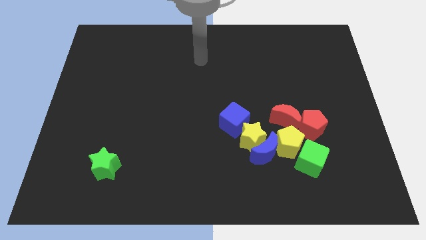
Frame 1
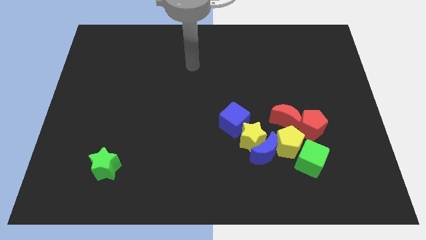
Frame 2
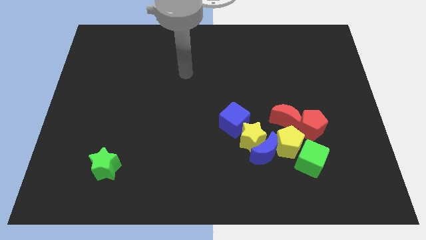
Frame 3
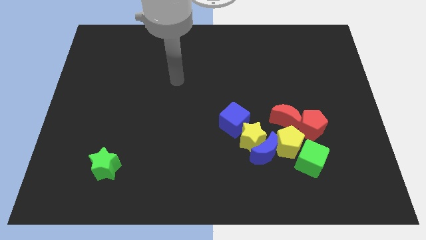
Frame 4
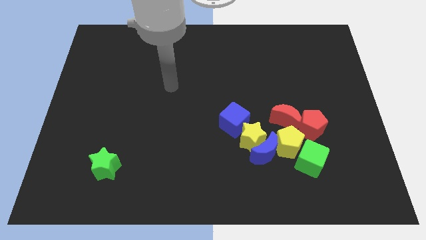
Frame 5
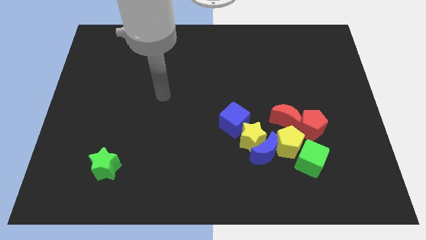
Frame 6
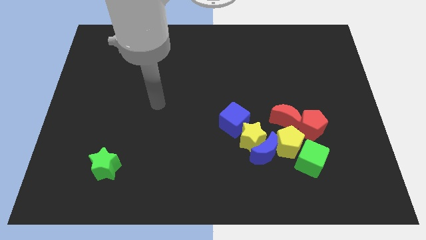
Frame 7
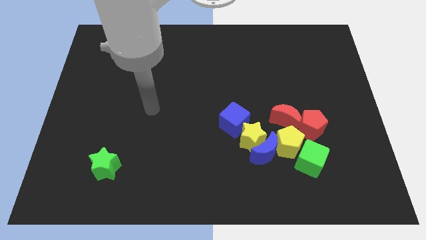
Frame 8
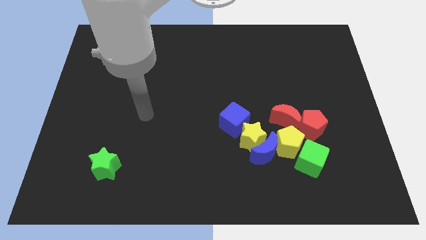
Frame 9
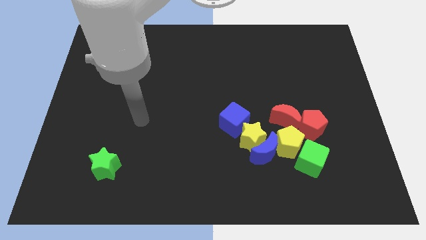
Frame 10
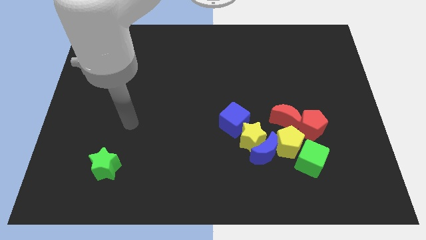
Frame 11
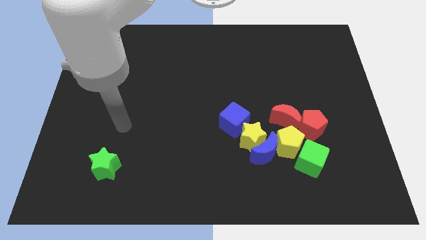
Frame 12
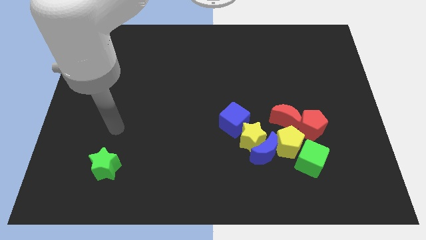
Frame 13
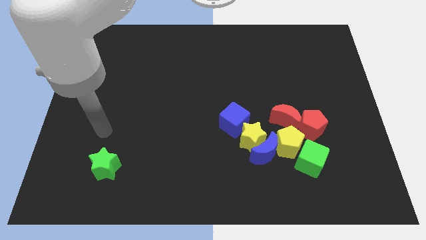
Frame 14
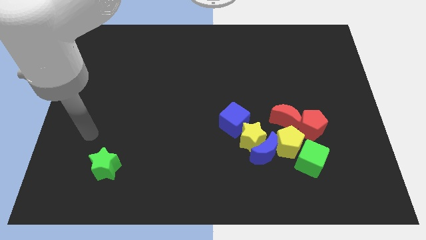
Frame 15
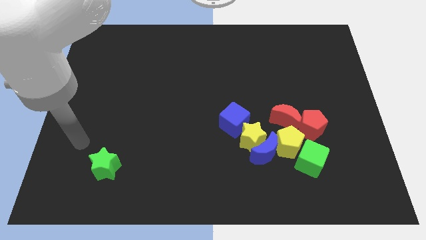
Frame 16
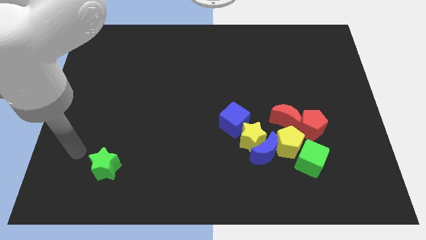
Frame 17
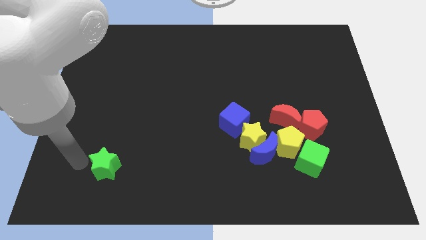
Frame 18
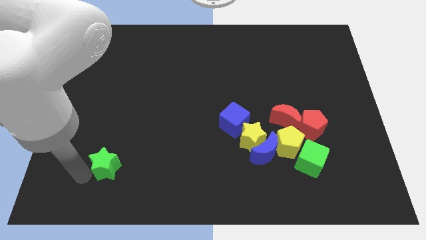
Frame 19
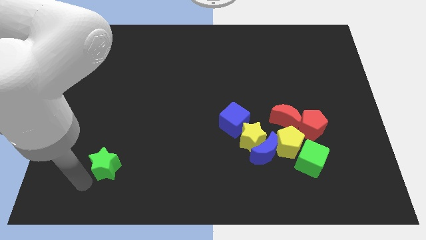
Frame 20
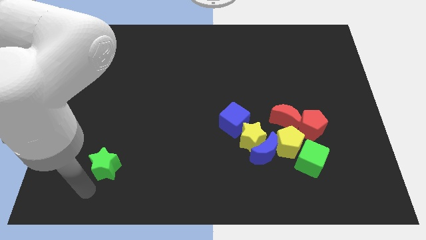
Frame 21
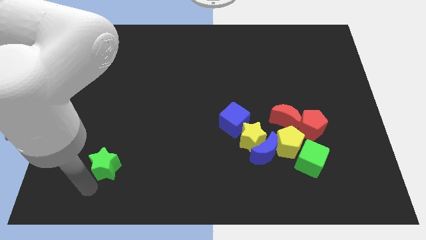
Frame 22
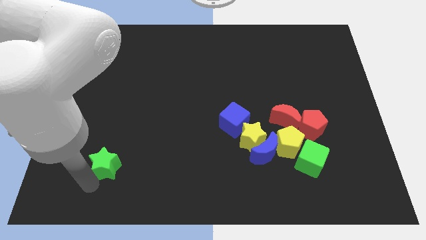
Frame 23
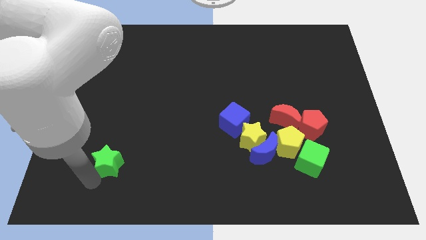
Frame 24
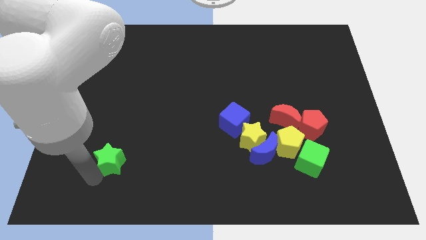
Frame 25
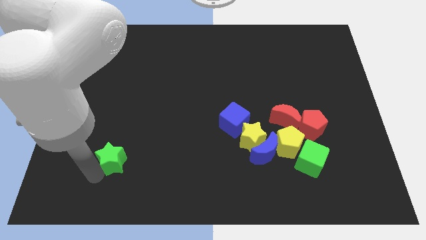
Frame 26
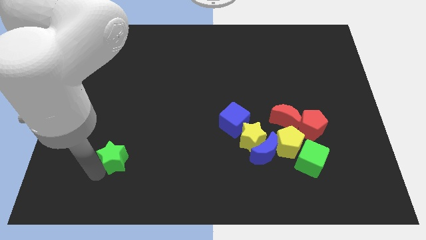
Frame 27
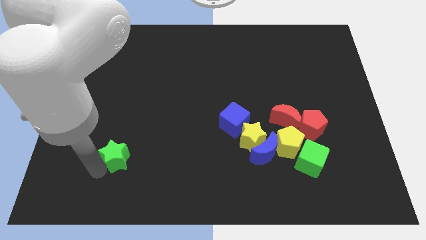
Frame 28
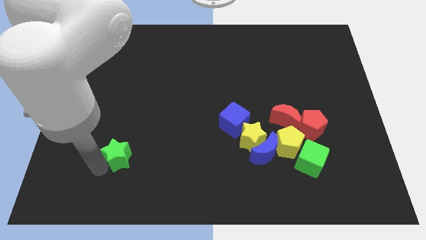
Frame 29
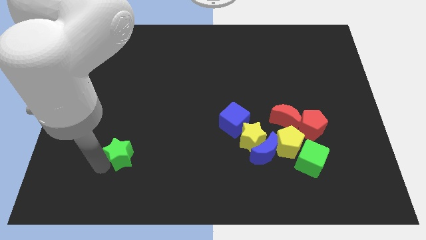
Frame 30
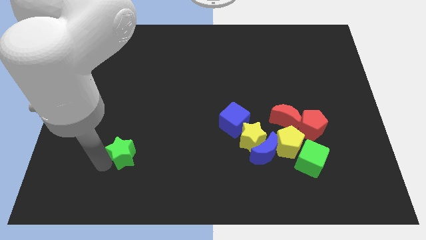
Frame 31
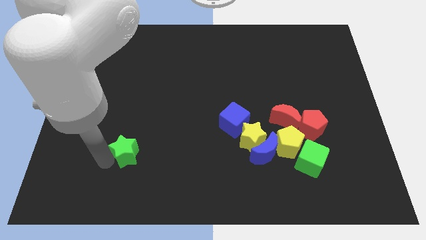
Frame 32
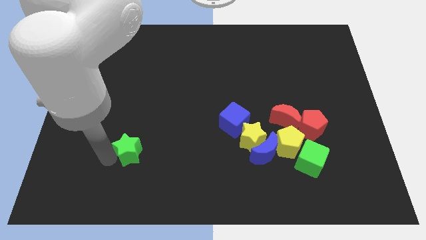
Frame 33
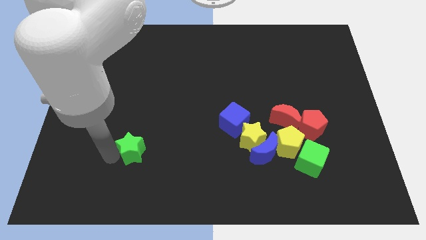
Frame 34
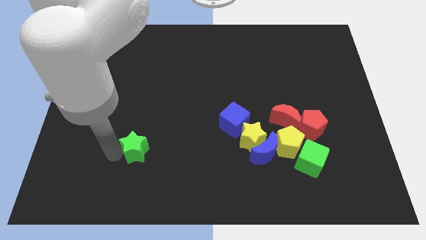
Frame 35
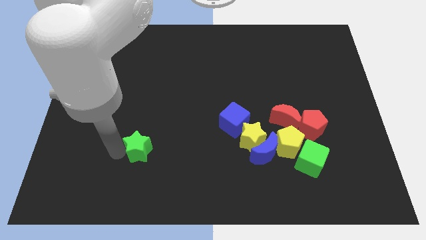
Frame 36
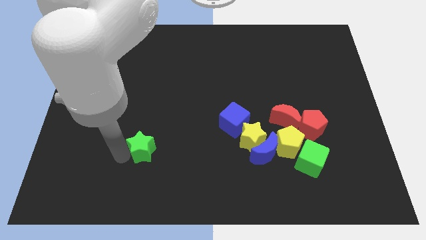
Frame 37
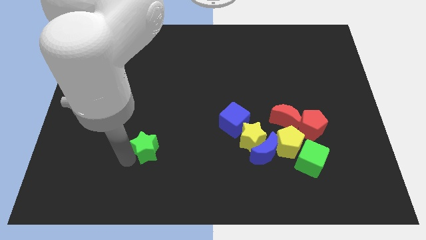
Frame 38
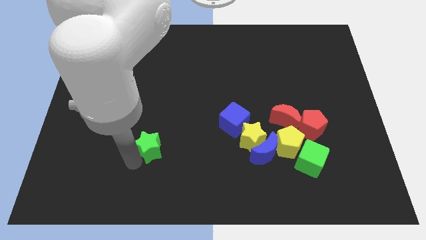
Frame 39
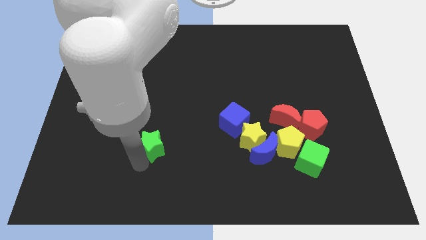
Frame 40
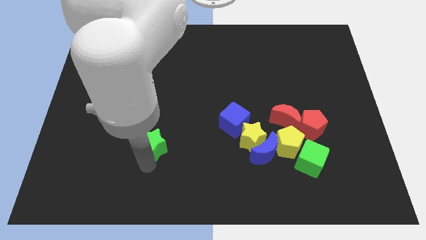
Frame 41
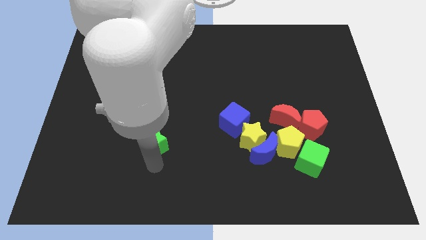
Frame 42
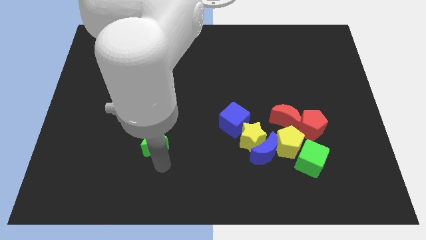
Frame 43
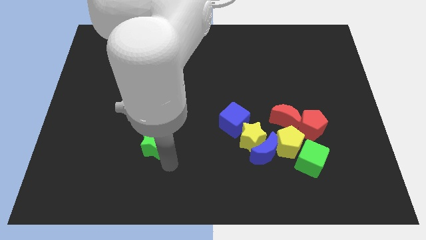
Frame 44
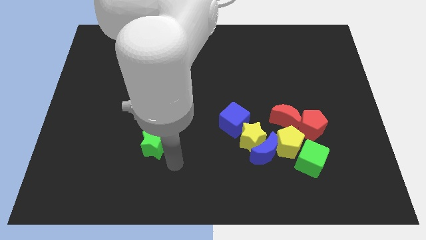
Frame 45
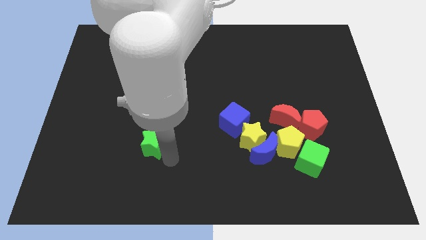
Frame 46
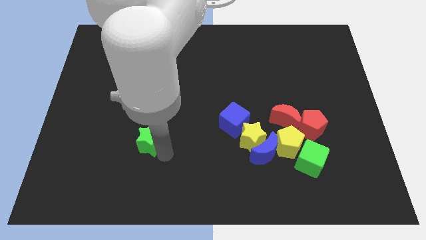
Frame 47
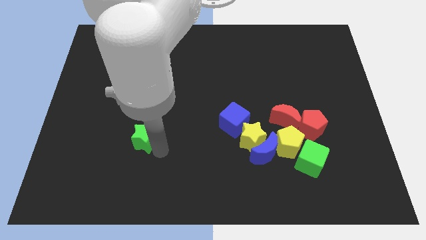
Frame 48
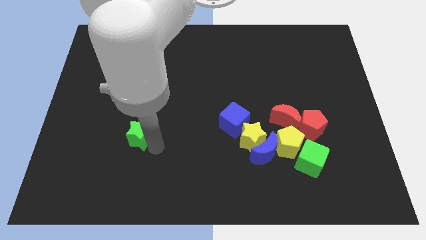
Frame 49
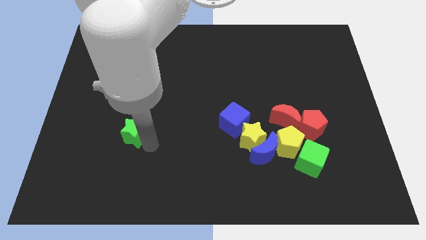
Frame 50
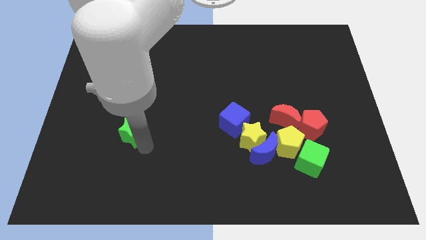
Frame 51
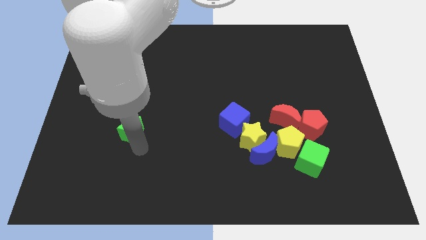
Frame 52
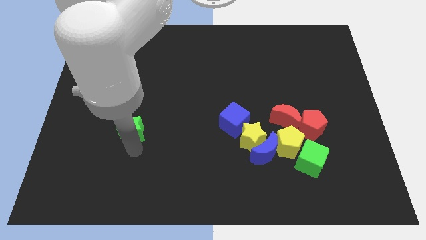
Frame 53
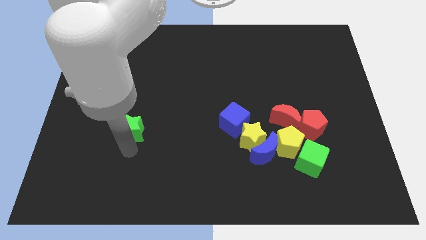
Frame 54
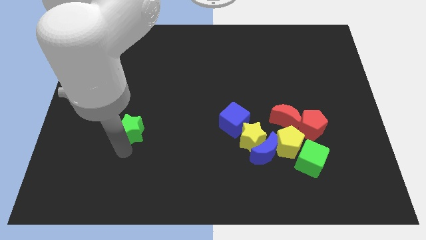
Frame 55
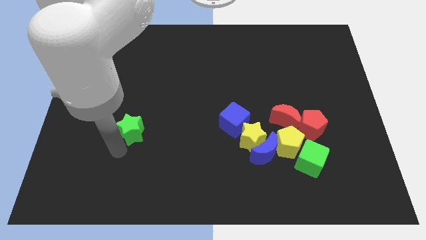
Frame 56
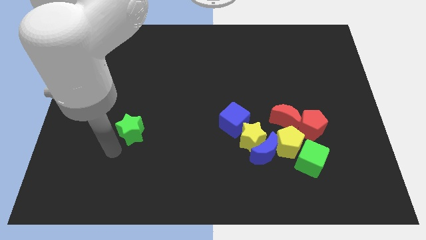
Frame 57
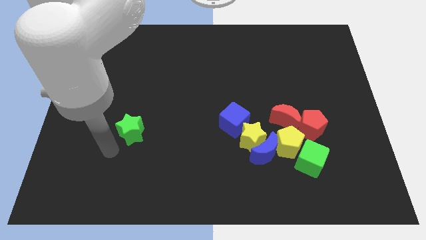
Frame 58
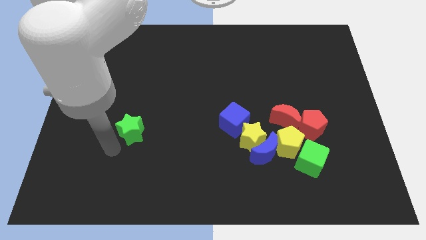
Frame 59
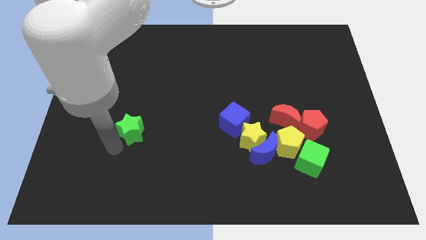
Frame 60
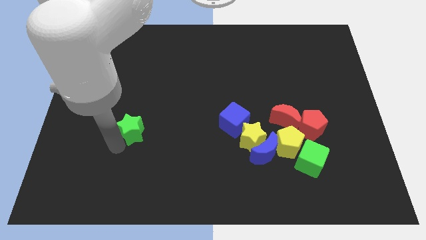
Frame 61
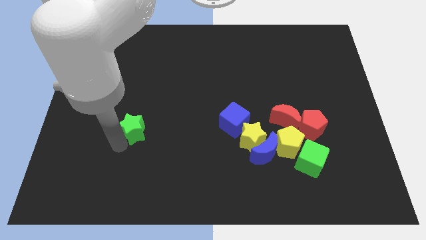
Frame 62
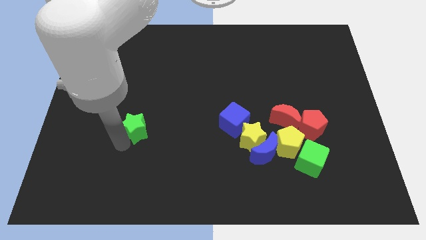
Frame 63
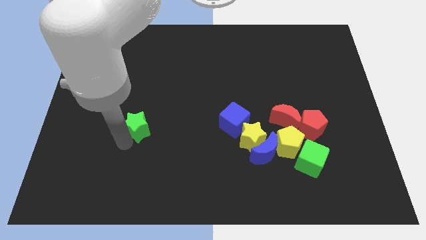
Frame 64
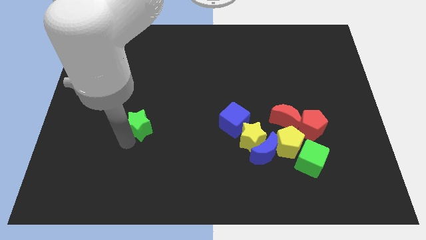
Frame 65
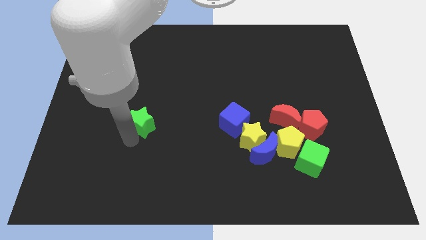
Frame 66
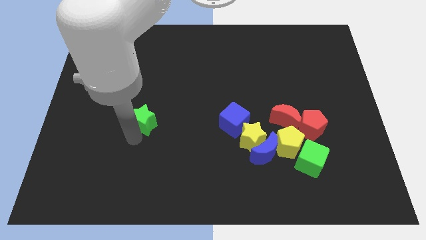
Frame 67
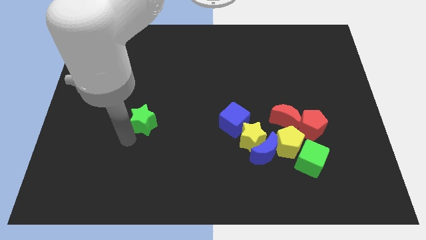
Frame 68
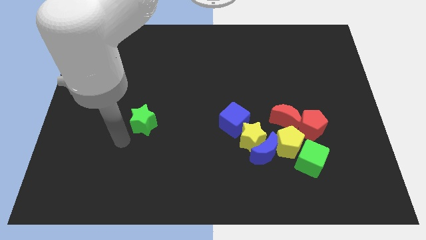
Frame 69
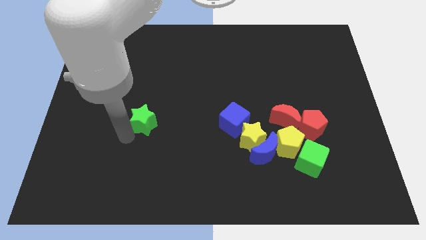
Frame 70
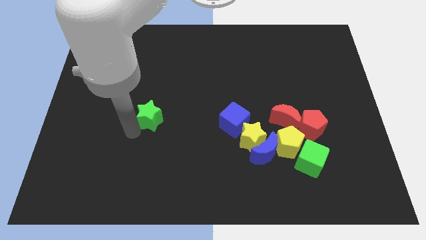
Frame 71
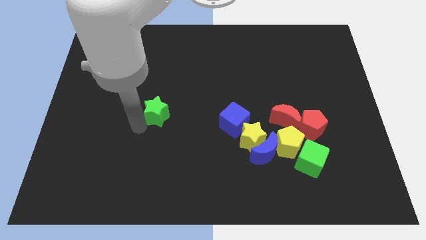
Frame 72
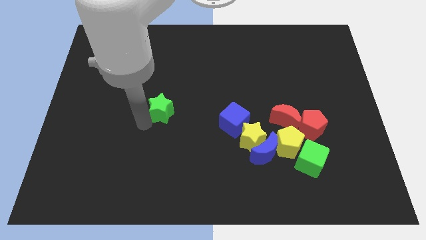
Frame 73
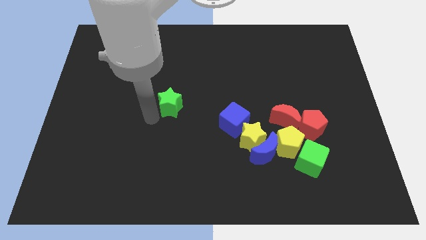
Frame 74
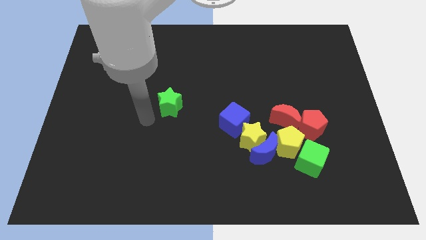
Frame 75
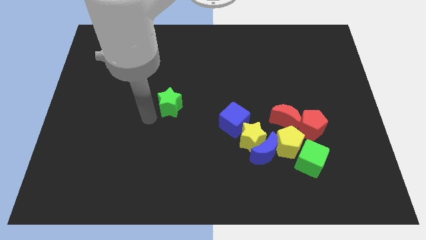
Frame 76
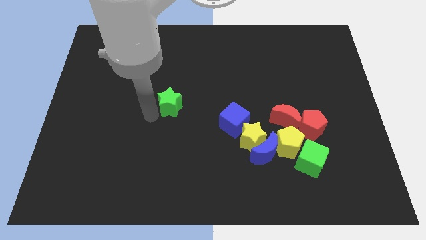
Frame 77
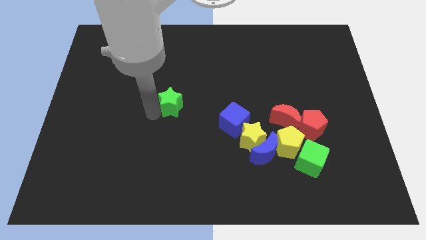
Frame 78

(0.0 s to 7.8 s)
push the green star upwards and right

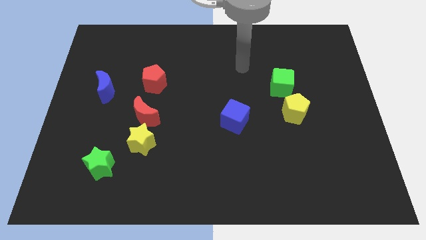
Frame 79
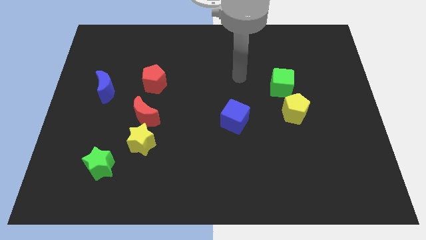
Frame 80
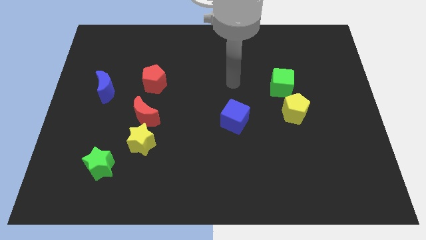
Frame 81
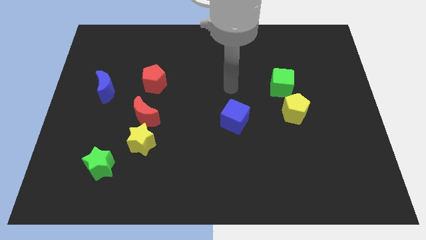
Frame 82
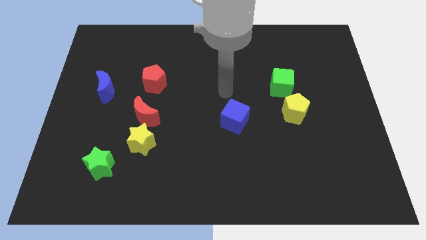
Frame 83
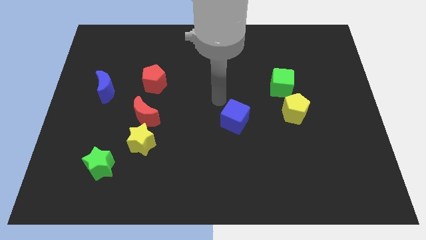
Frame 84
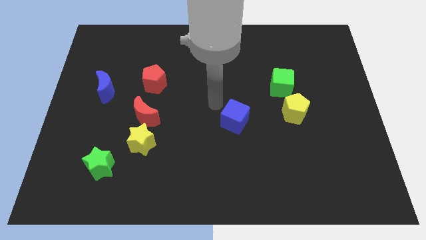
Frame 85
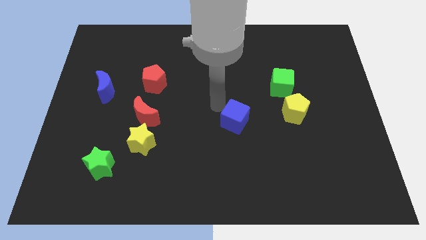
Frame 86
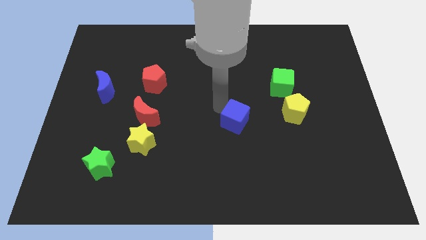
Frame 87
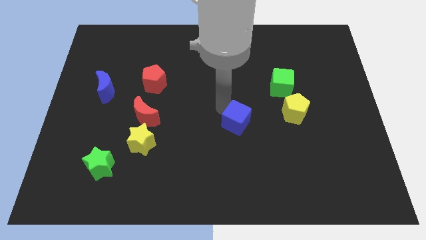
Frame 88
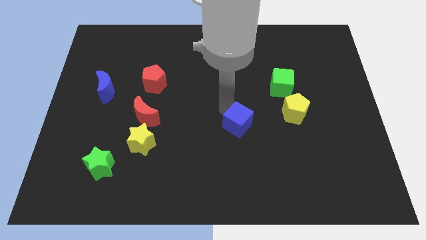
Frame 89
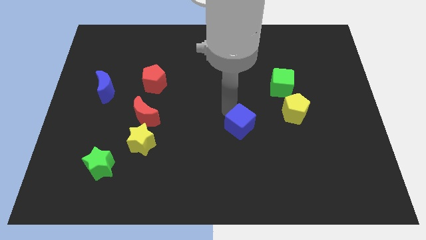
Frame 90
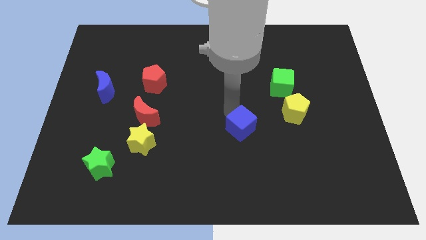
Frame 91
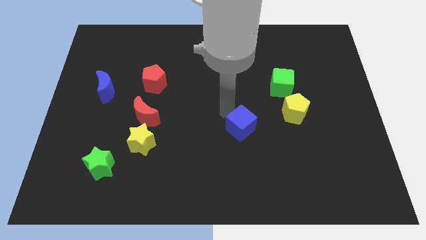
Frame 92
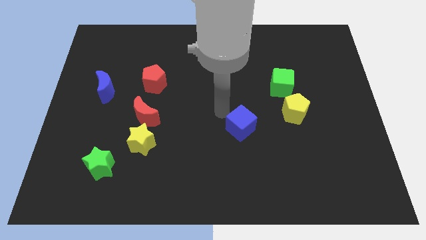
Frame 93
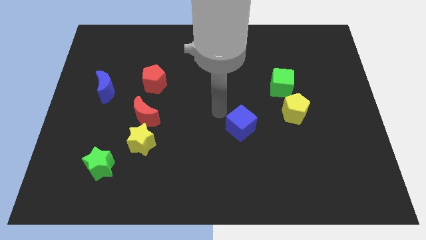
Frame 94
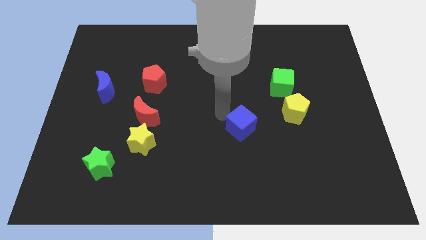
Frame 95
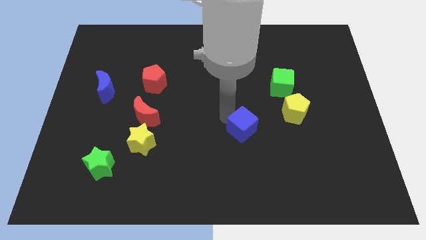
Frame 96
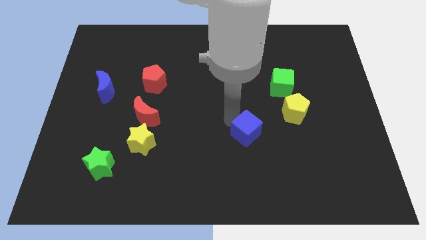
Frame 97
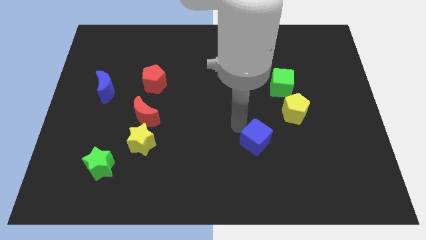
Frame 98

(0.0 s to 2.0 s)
push the blue cube a little diagonally downwards and right
